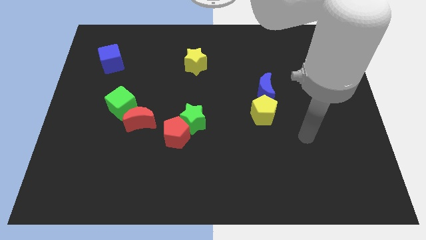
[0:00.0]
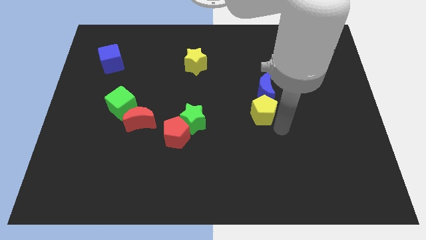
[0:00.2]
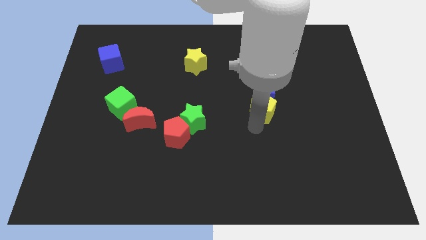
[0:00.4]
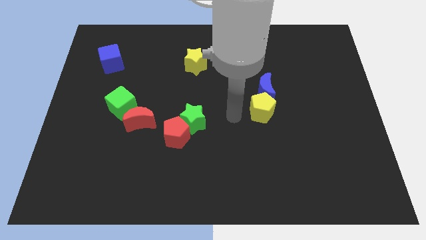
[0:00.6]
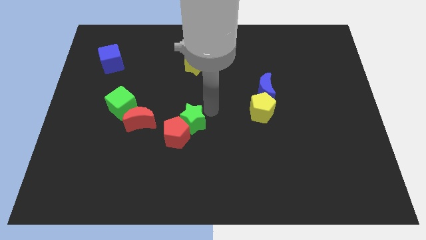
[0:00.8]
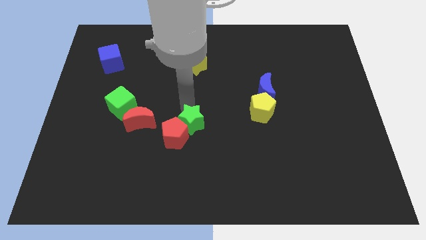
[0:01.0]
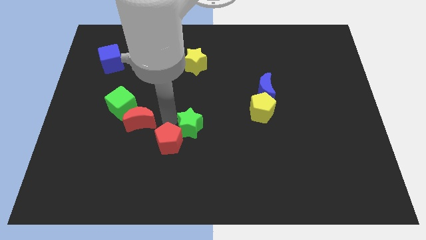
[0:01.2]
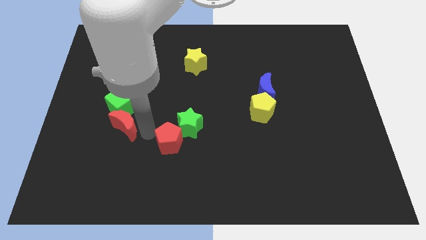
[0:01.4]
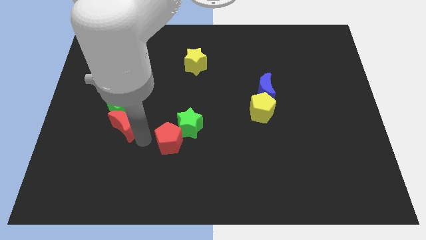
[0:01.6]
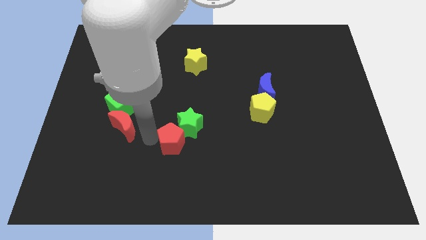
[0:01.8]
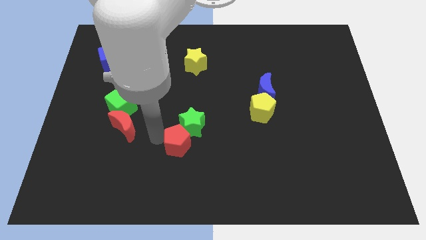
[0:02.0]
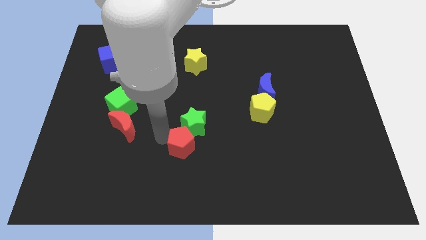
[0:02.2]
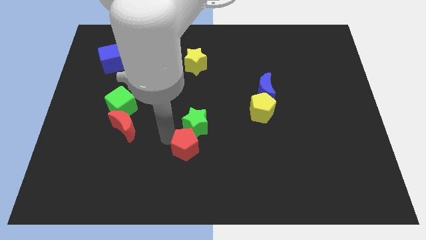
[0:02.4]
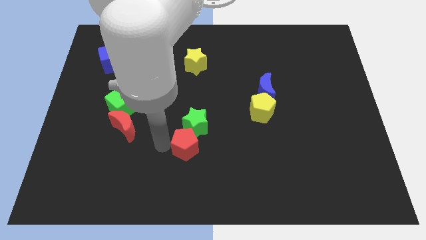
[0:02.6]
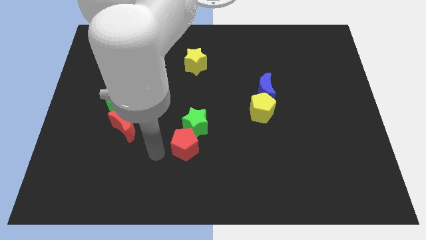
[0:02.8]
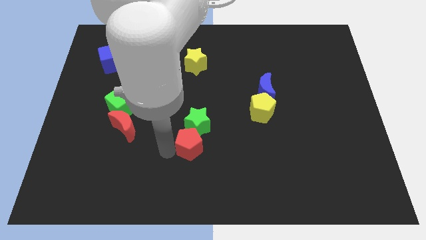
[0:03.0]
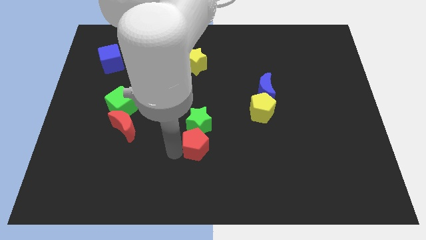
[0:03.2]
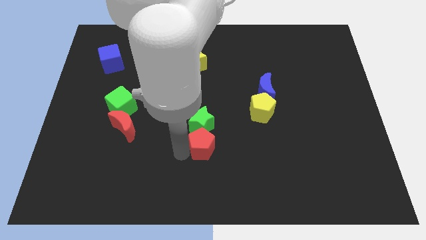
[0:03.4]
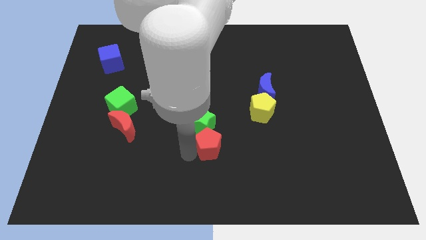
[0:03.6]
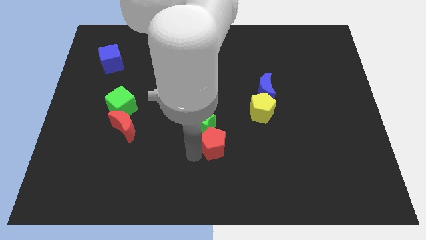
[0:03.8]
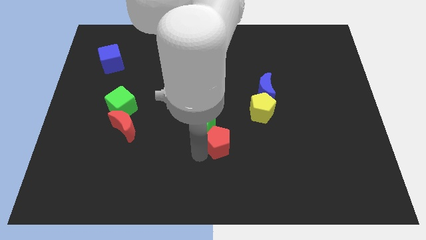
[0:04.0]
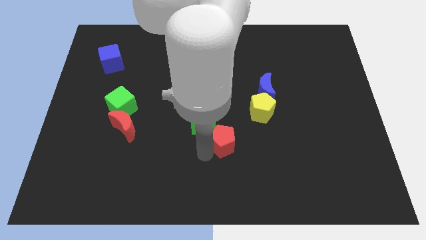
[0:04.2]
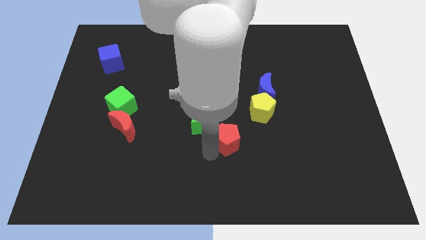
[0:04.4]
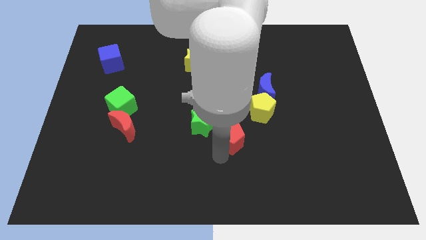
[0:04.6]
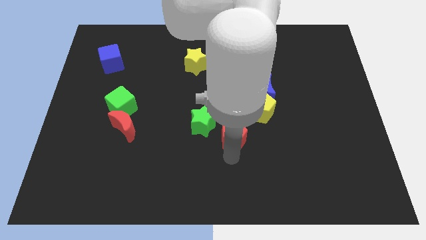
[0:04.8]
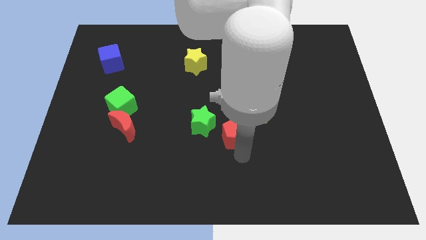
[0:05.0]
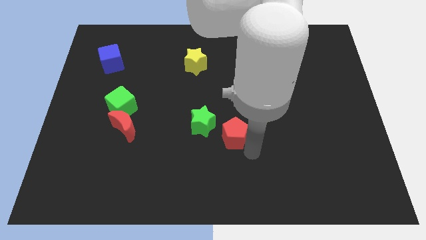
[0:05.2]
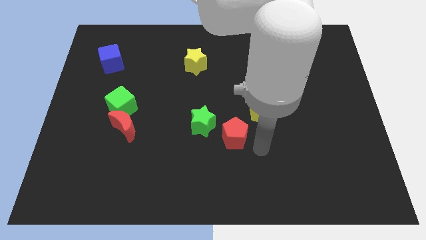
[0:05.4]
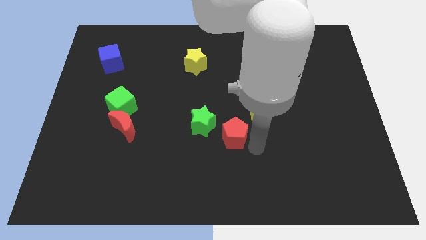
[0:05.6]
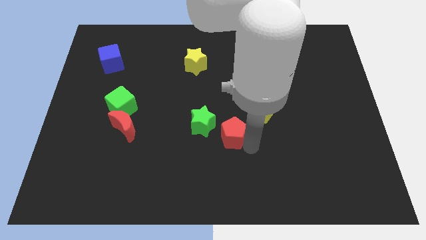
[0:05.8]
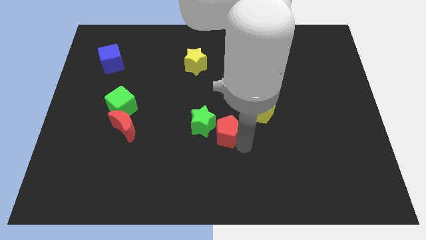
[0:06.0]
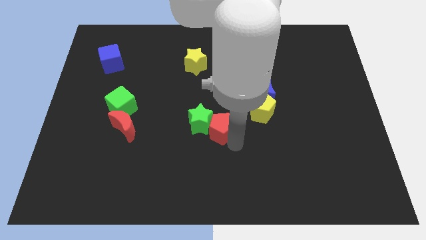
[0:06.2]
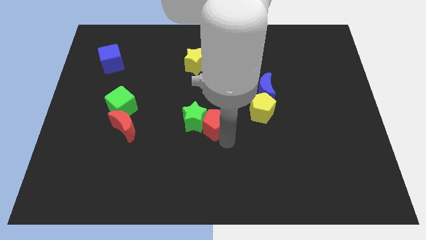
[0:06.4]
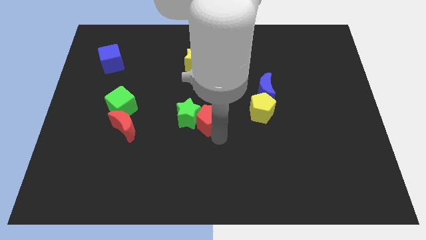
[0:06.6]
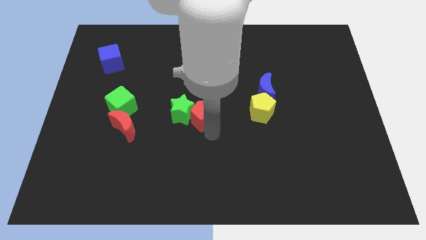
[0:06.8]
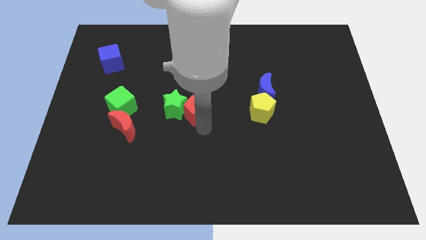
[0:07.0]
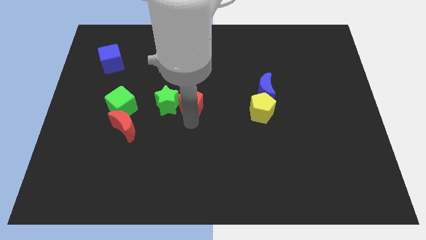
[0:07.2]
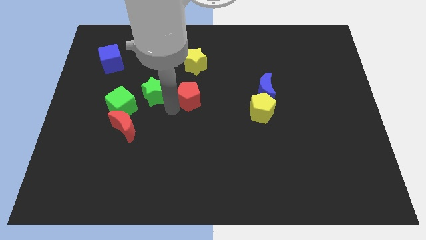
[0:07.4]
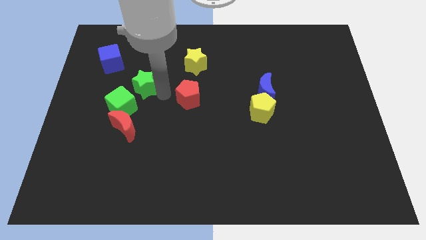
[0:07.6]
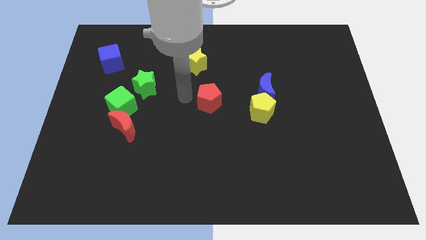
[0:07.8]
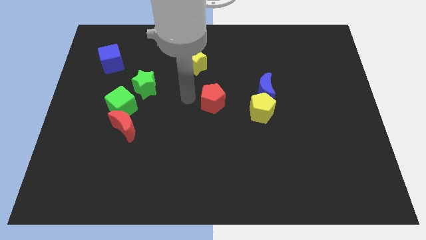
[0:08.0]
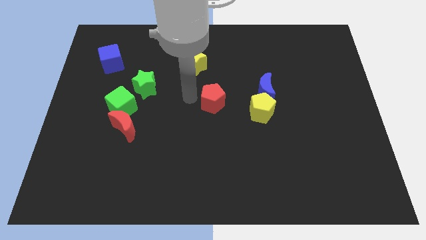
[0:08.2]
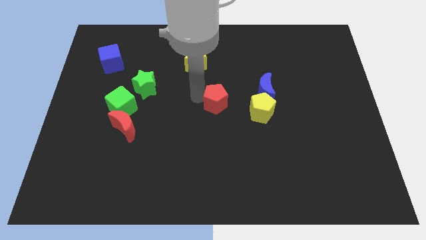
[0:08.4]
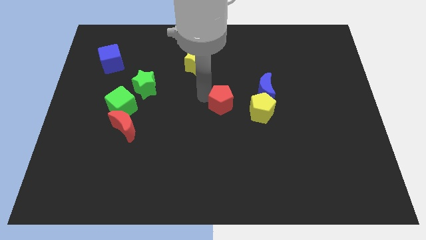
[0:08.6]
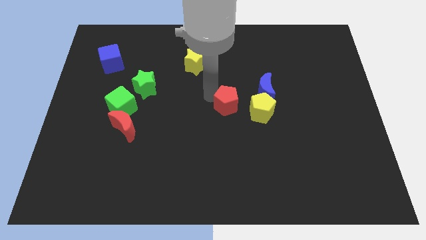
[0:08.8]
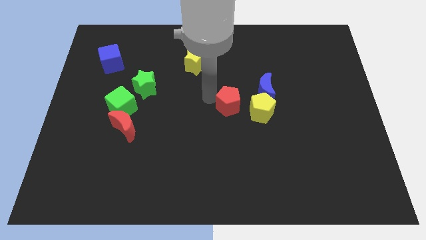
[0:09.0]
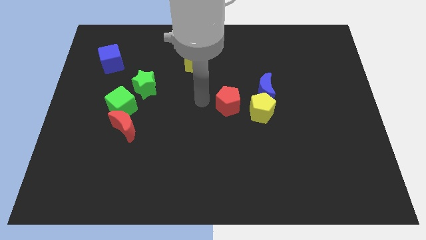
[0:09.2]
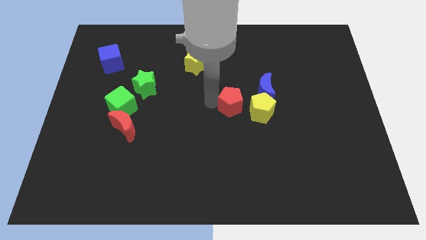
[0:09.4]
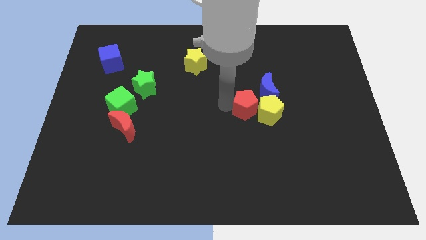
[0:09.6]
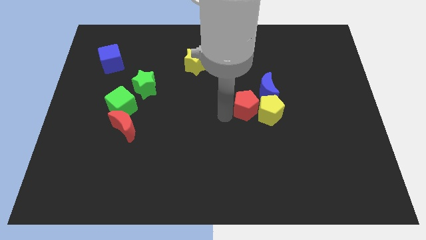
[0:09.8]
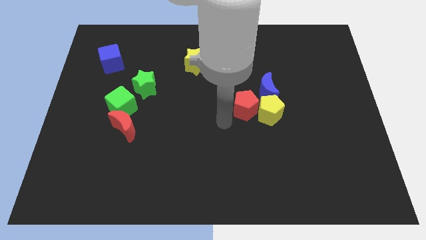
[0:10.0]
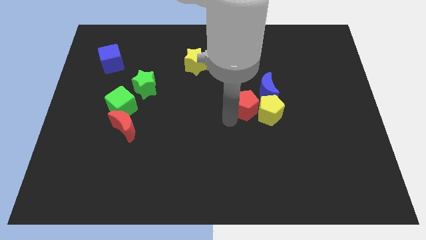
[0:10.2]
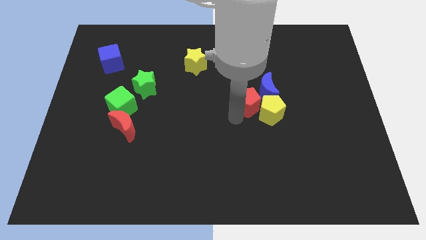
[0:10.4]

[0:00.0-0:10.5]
push the red pentagon close to the blue moon

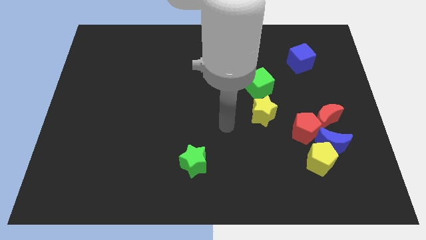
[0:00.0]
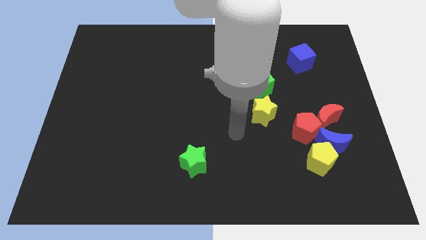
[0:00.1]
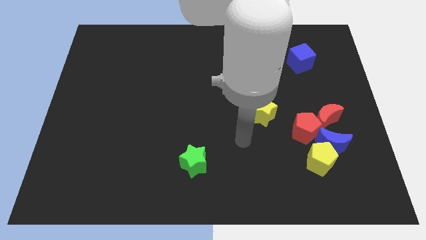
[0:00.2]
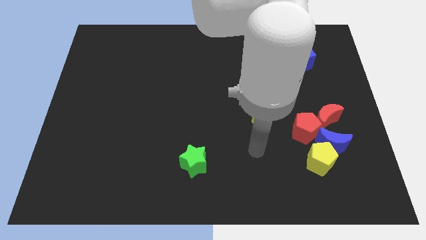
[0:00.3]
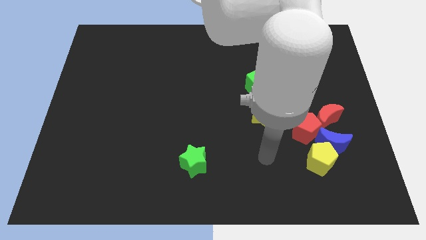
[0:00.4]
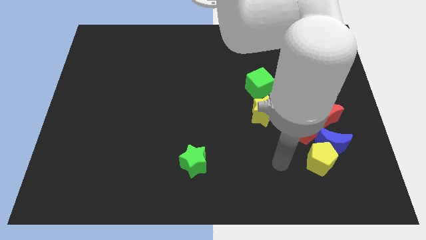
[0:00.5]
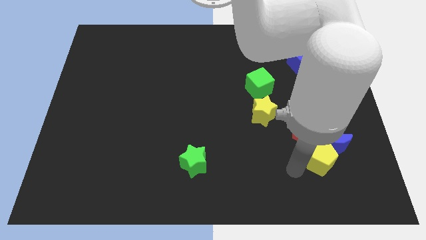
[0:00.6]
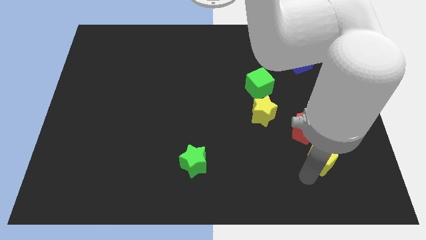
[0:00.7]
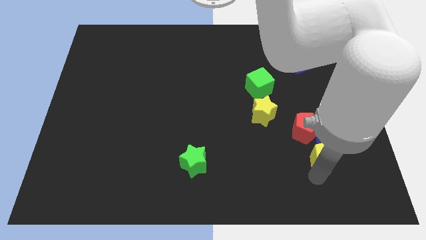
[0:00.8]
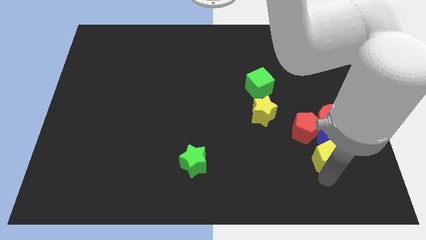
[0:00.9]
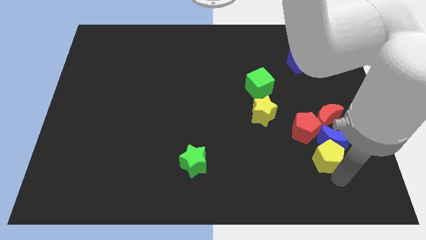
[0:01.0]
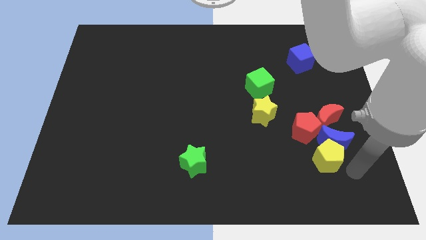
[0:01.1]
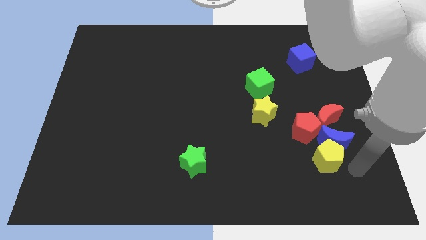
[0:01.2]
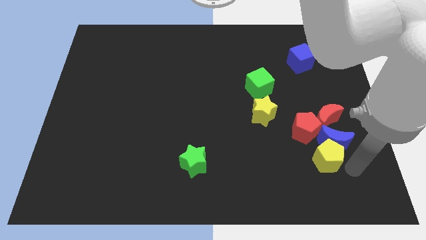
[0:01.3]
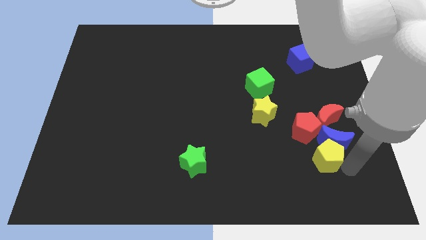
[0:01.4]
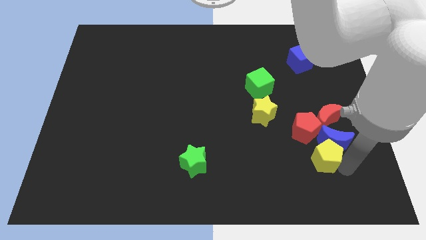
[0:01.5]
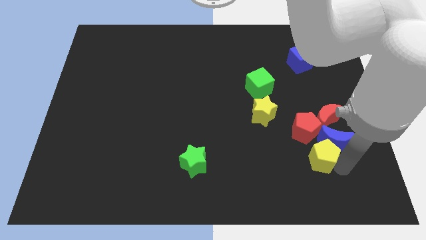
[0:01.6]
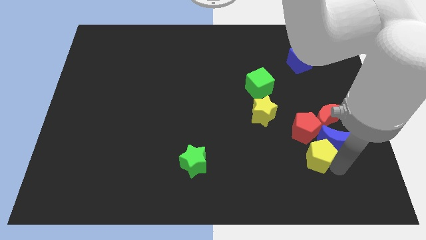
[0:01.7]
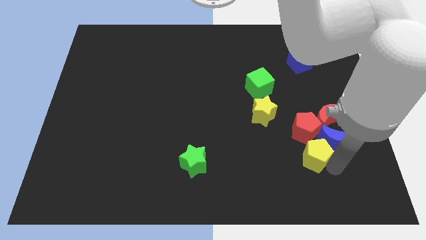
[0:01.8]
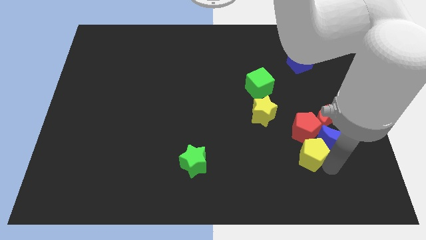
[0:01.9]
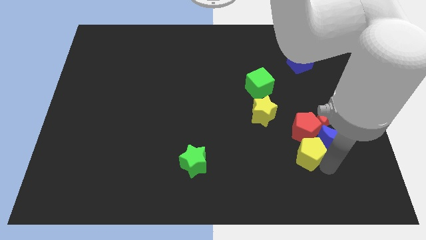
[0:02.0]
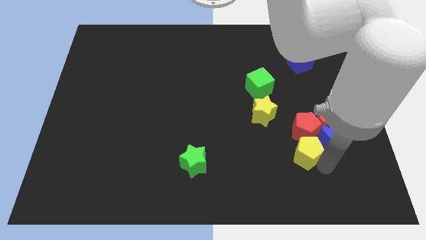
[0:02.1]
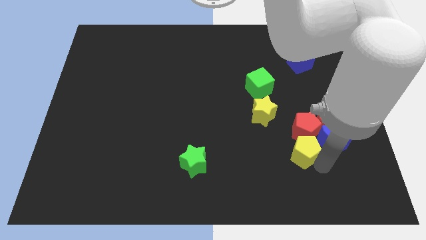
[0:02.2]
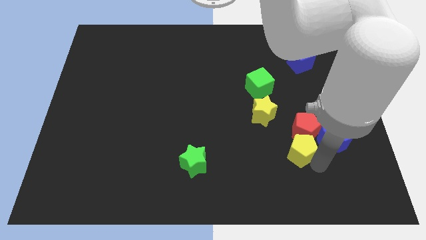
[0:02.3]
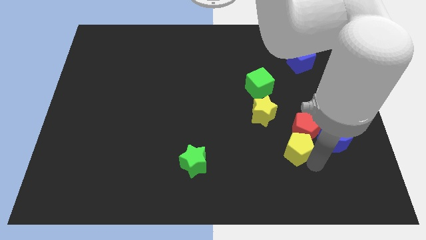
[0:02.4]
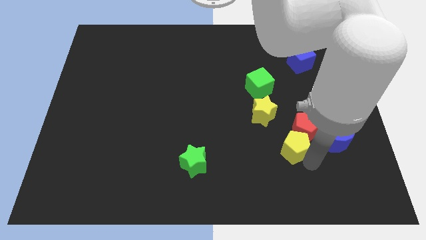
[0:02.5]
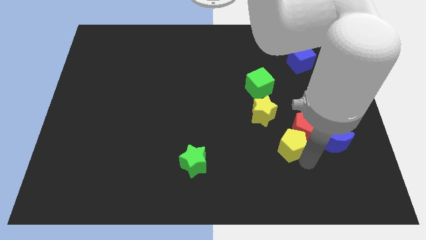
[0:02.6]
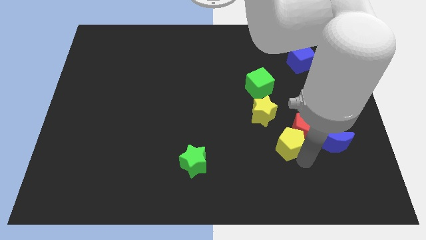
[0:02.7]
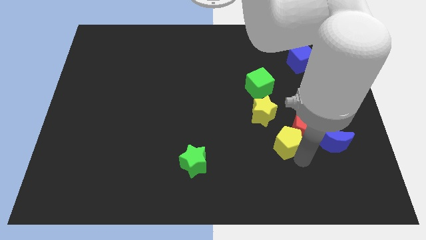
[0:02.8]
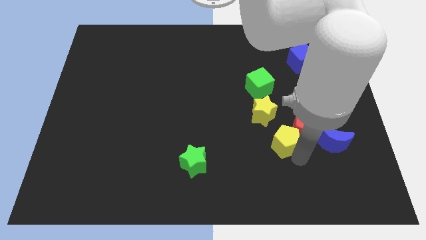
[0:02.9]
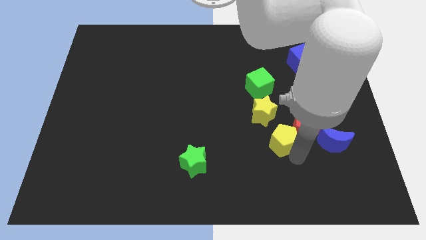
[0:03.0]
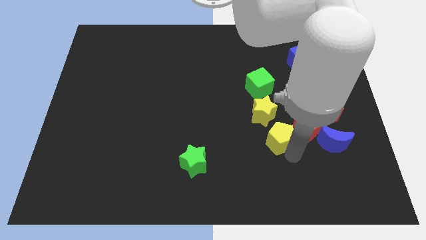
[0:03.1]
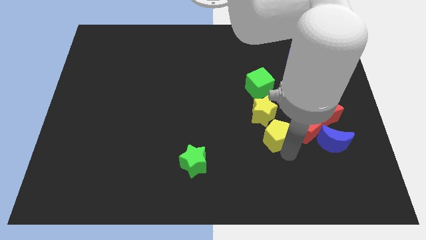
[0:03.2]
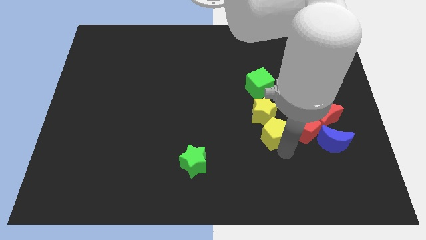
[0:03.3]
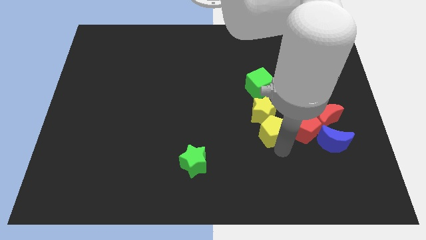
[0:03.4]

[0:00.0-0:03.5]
push the yellow pentagon towards the yellow star
